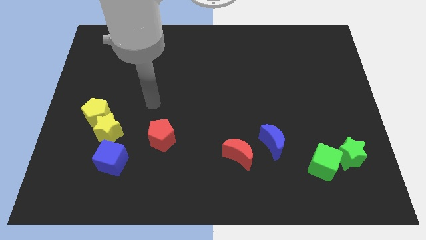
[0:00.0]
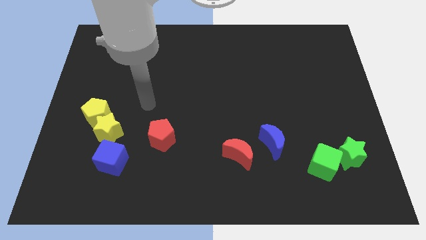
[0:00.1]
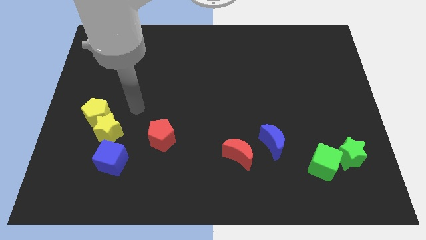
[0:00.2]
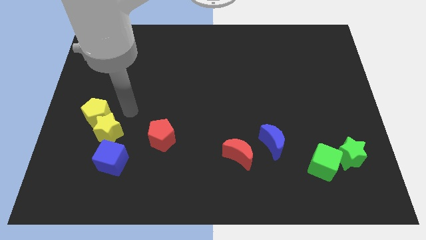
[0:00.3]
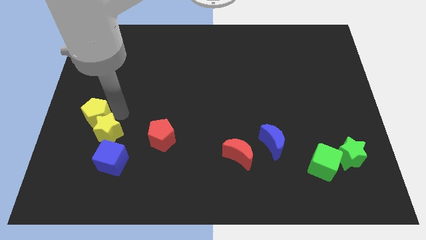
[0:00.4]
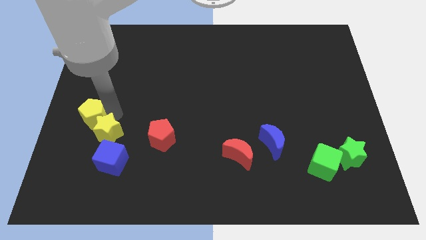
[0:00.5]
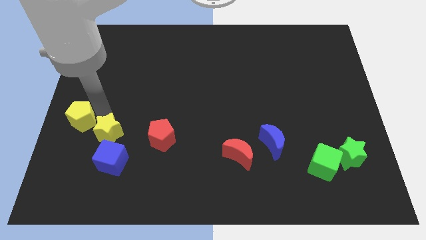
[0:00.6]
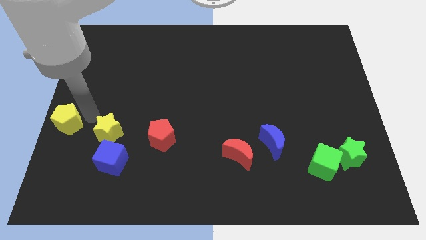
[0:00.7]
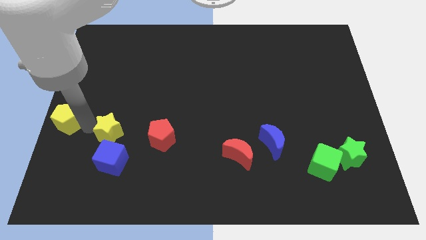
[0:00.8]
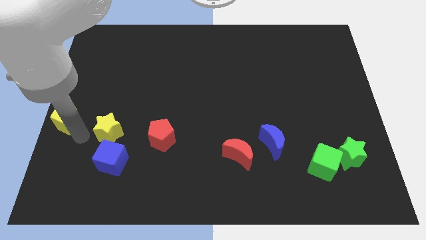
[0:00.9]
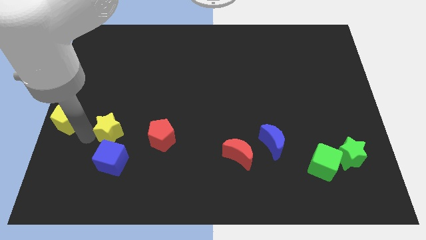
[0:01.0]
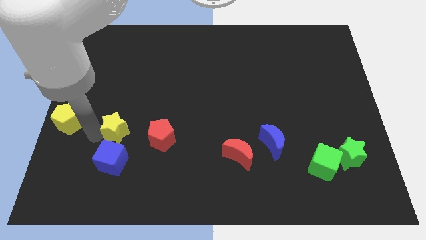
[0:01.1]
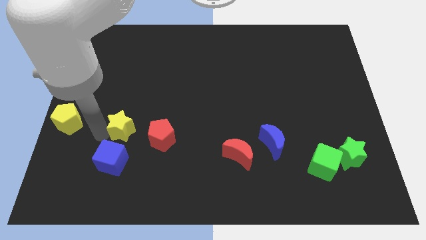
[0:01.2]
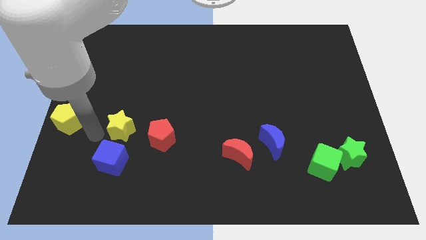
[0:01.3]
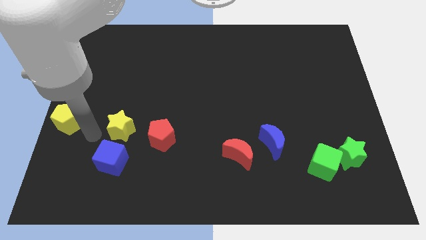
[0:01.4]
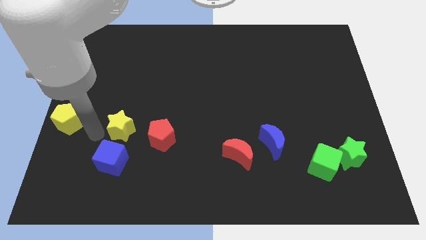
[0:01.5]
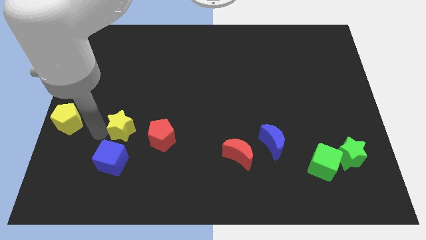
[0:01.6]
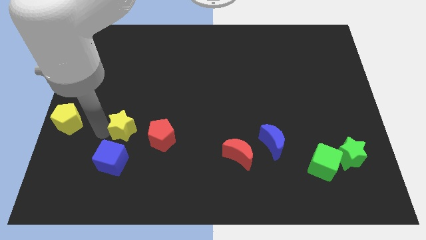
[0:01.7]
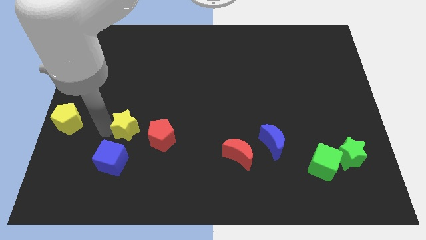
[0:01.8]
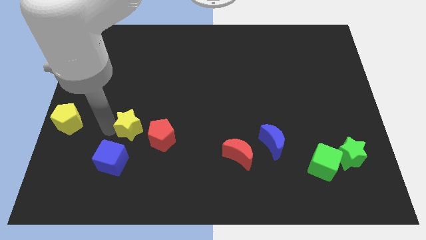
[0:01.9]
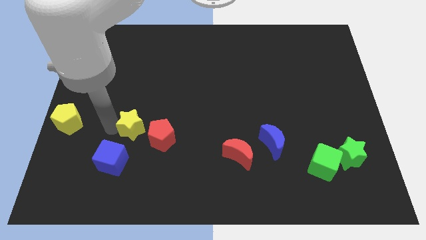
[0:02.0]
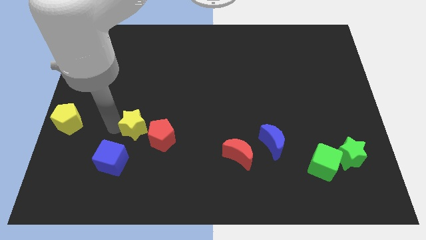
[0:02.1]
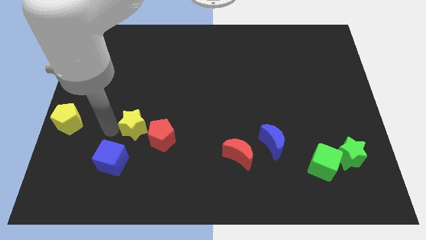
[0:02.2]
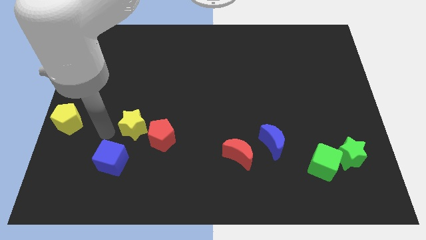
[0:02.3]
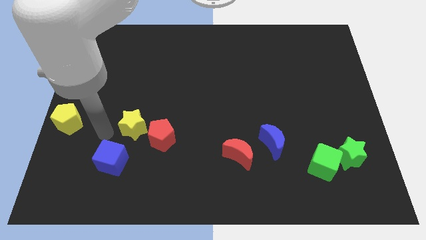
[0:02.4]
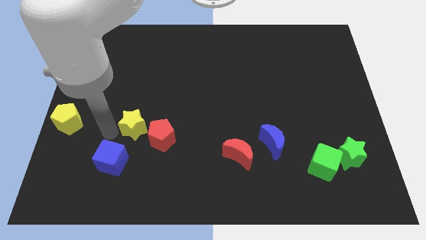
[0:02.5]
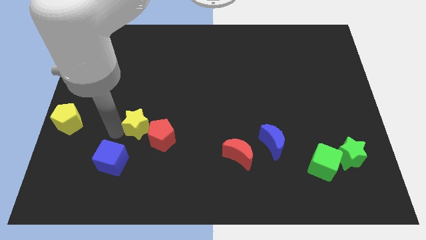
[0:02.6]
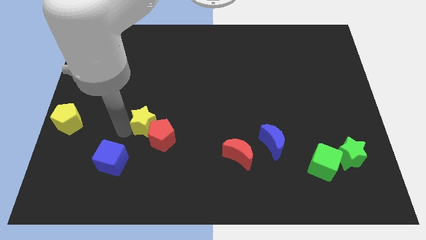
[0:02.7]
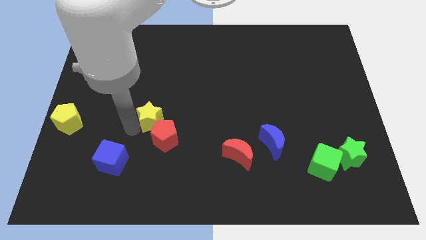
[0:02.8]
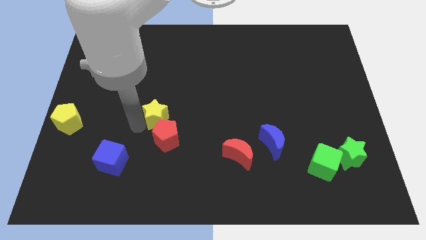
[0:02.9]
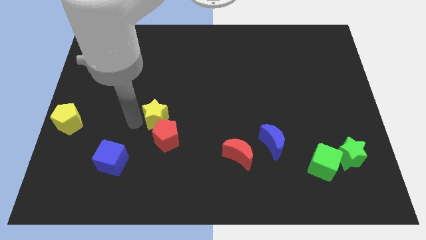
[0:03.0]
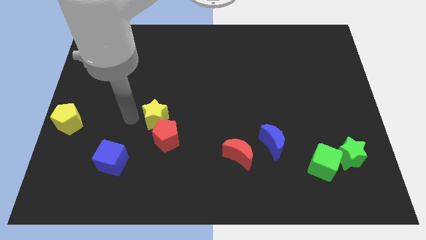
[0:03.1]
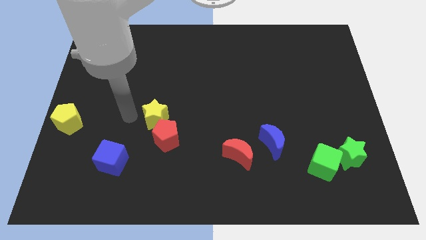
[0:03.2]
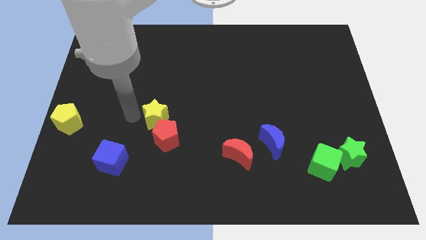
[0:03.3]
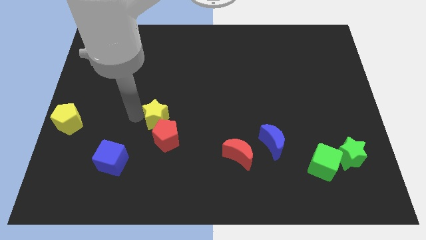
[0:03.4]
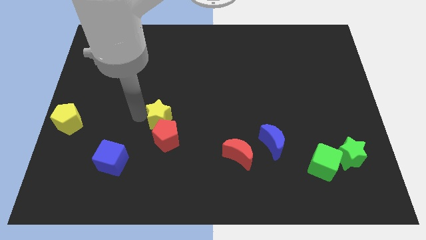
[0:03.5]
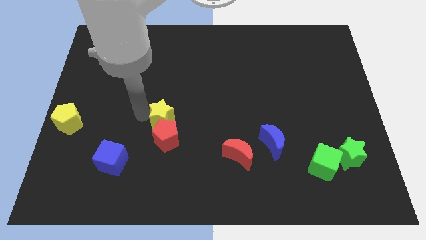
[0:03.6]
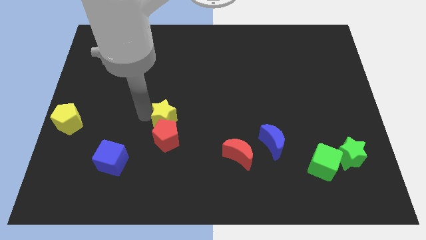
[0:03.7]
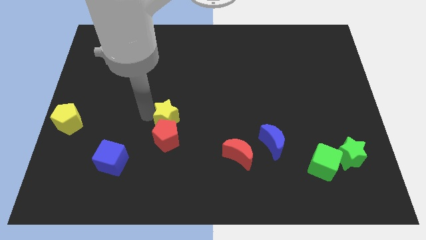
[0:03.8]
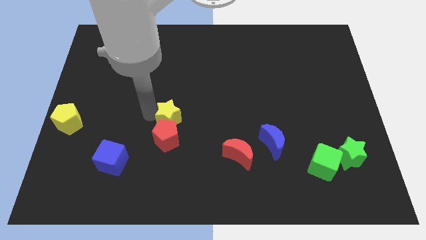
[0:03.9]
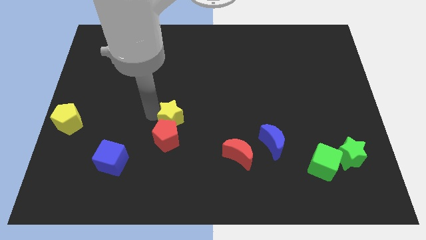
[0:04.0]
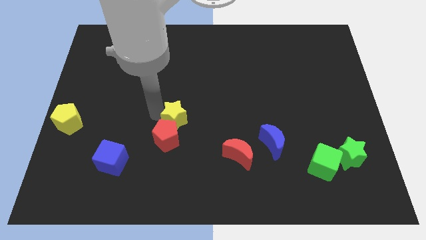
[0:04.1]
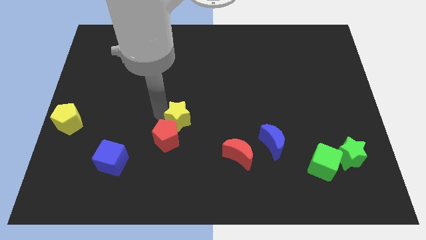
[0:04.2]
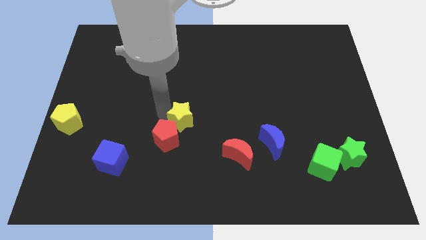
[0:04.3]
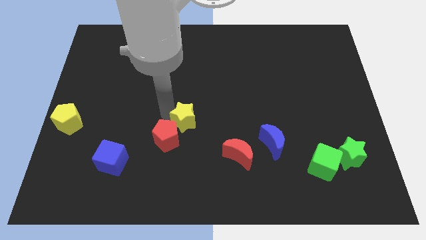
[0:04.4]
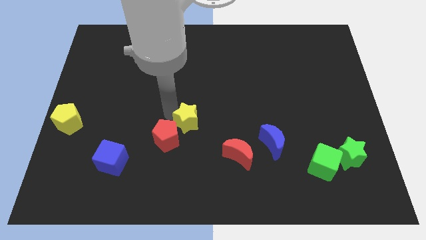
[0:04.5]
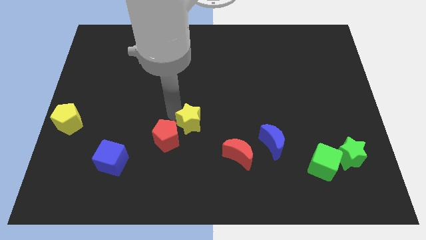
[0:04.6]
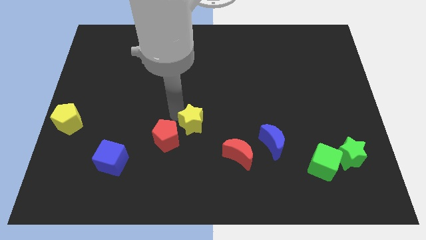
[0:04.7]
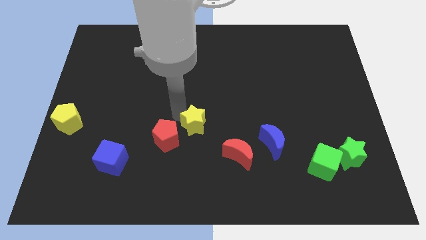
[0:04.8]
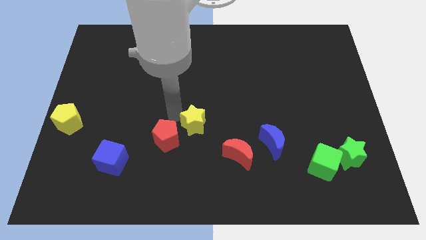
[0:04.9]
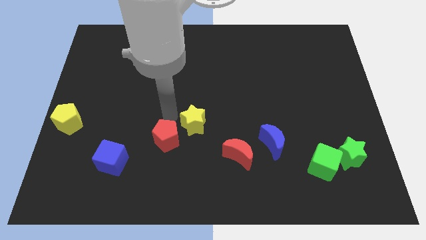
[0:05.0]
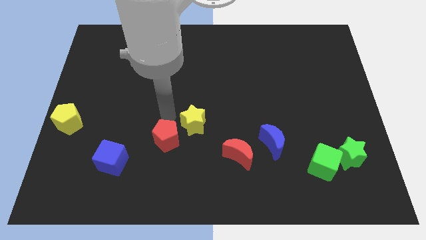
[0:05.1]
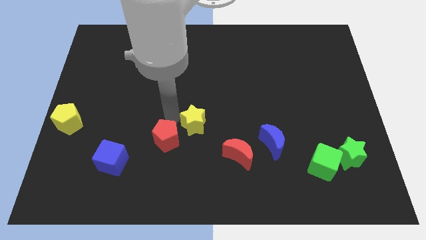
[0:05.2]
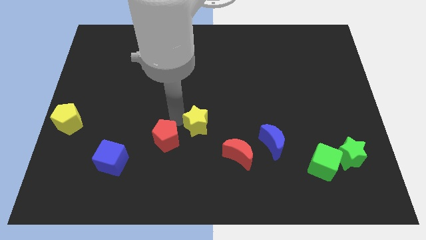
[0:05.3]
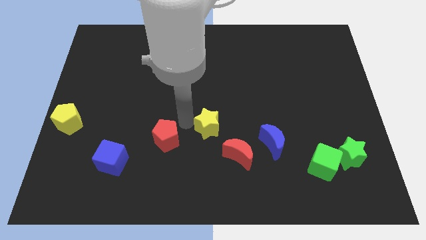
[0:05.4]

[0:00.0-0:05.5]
push the yellow star to the right

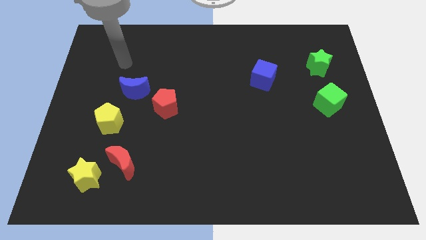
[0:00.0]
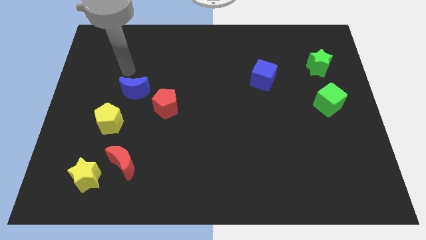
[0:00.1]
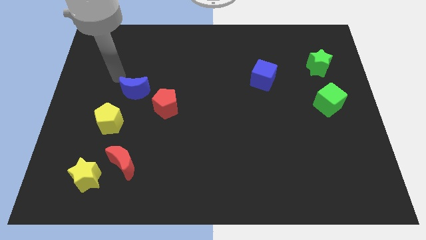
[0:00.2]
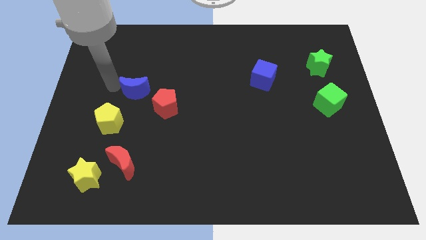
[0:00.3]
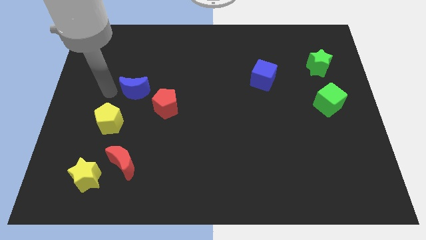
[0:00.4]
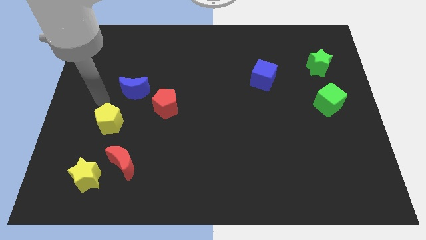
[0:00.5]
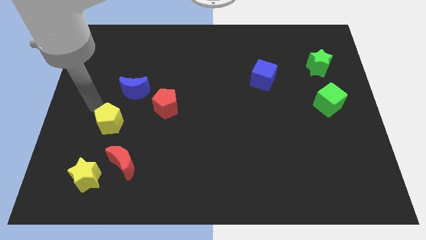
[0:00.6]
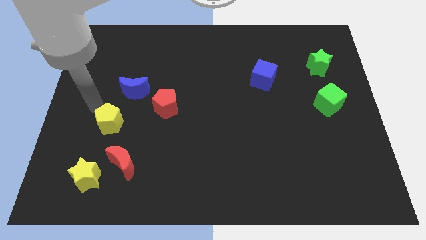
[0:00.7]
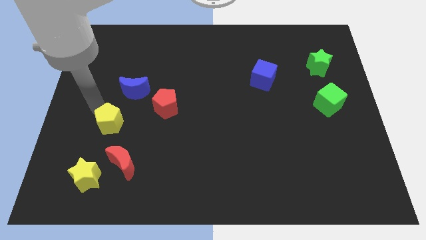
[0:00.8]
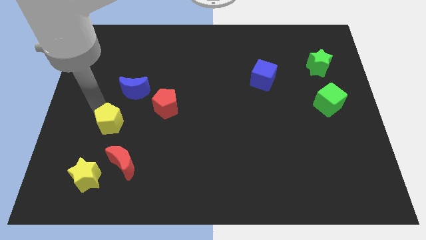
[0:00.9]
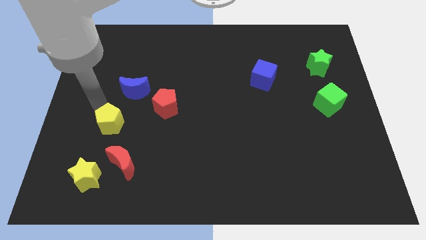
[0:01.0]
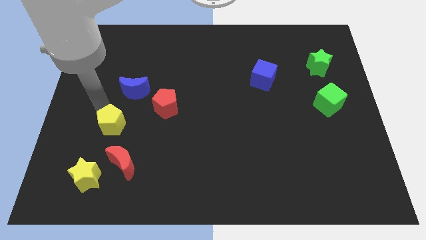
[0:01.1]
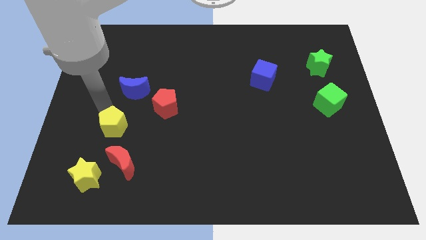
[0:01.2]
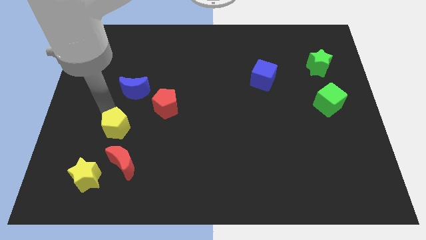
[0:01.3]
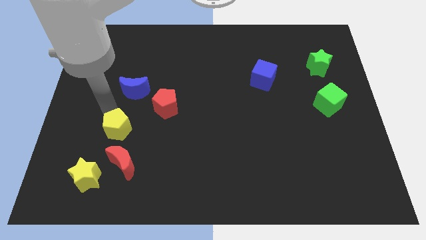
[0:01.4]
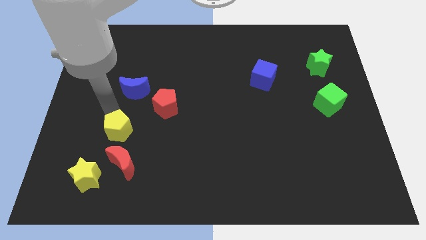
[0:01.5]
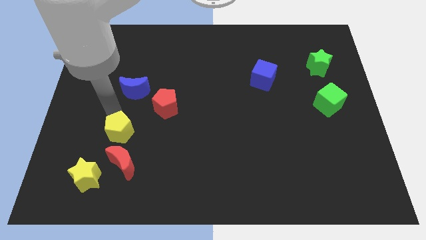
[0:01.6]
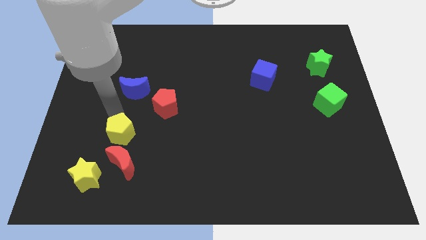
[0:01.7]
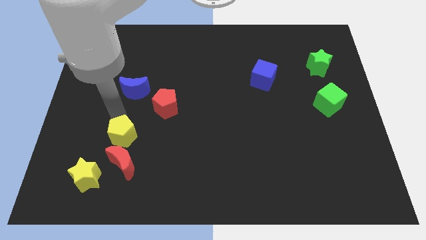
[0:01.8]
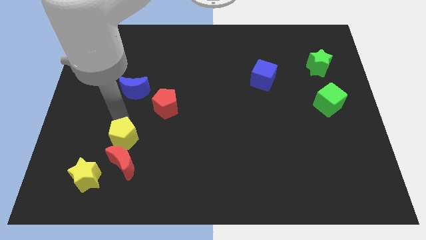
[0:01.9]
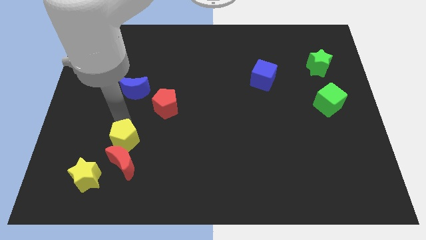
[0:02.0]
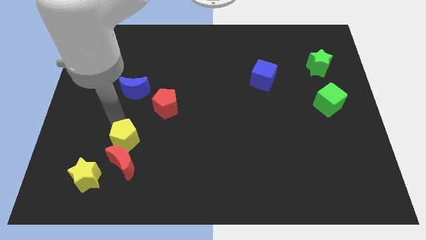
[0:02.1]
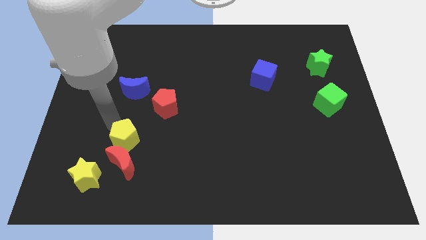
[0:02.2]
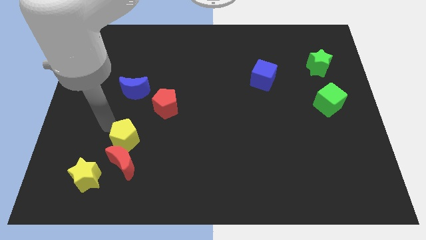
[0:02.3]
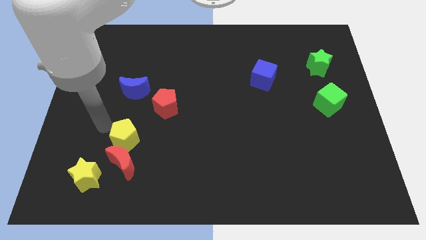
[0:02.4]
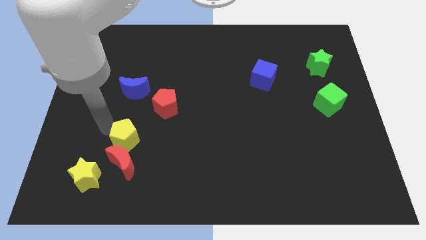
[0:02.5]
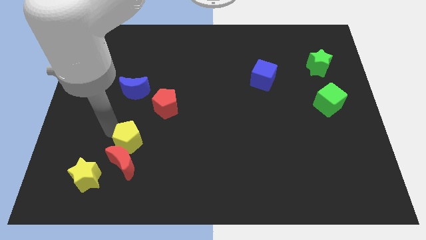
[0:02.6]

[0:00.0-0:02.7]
push the yellow pentagon a bit downwards and to the right
